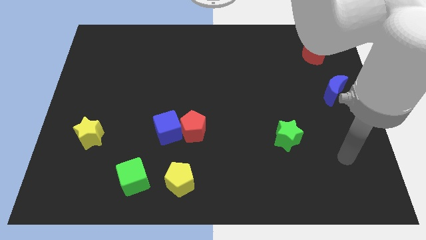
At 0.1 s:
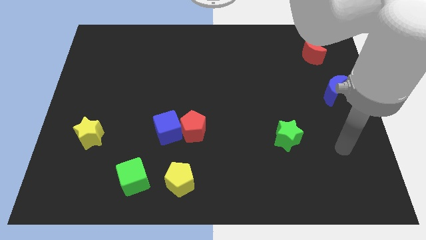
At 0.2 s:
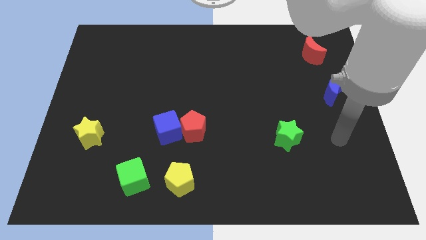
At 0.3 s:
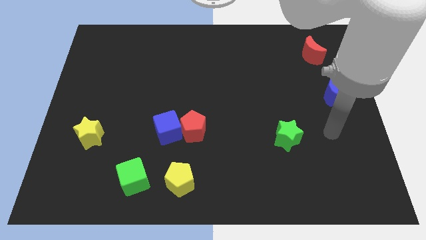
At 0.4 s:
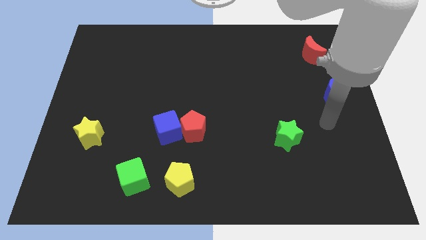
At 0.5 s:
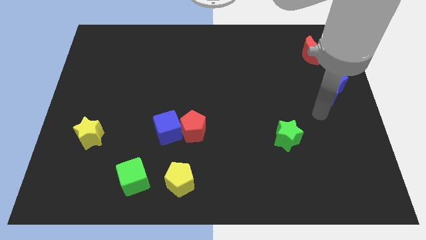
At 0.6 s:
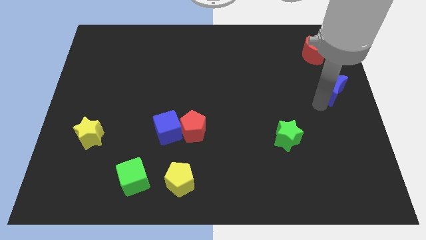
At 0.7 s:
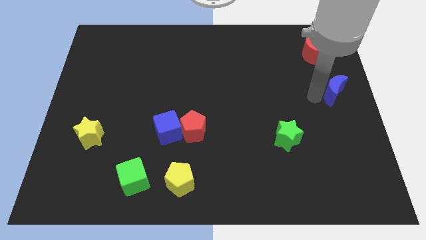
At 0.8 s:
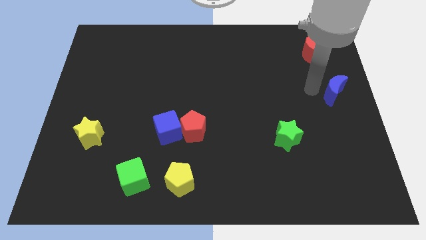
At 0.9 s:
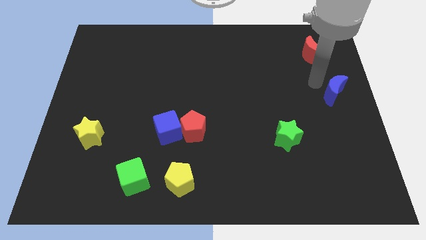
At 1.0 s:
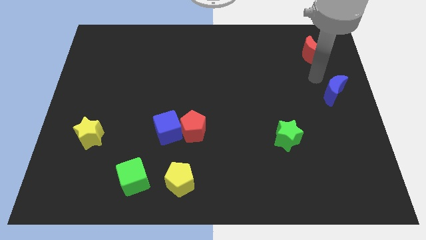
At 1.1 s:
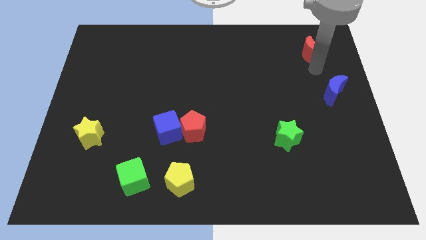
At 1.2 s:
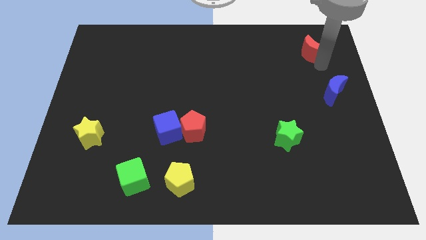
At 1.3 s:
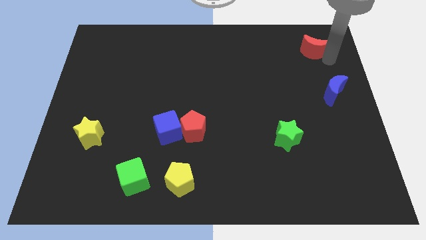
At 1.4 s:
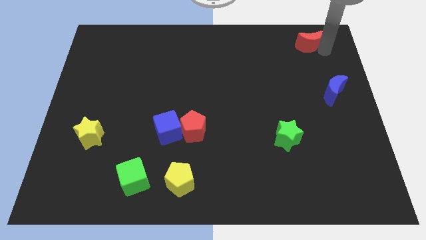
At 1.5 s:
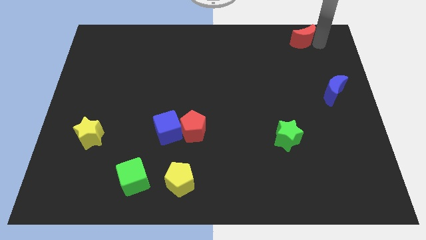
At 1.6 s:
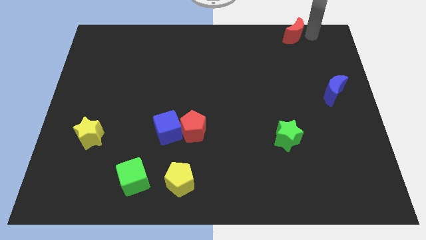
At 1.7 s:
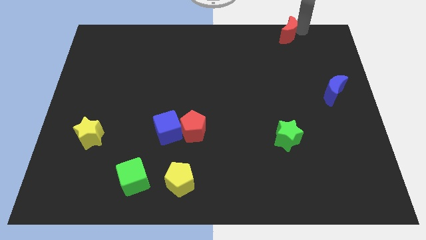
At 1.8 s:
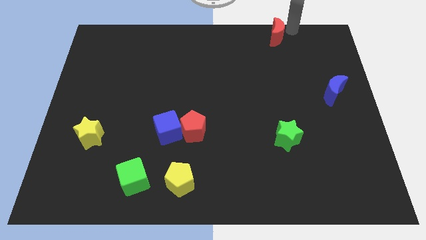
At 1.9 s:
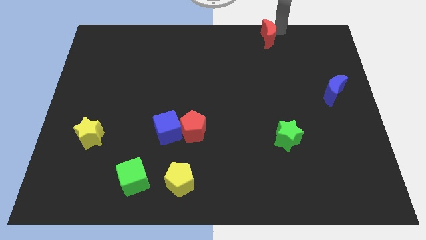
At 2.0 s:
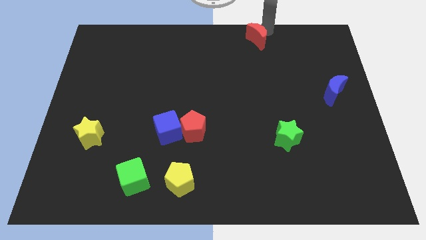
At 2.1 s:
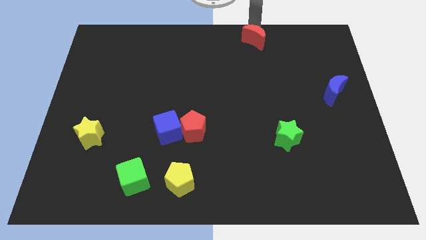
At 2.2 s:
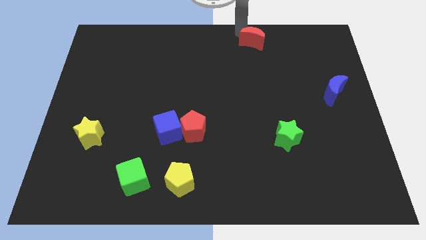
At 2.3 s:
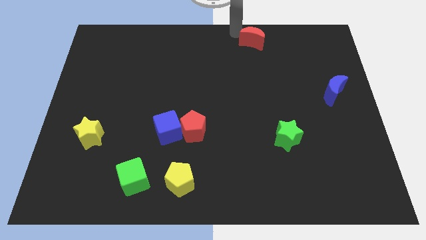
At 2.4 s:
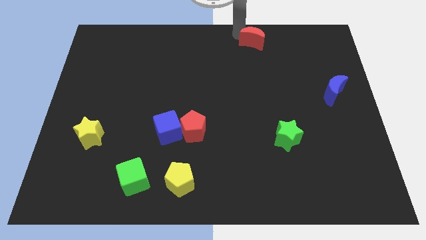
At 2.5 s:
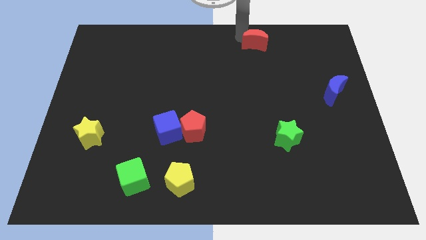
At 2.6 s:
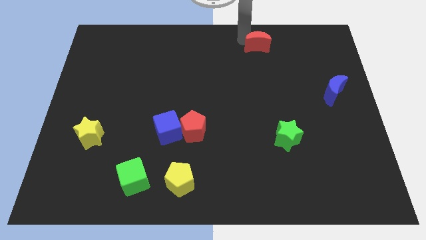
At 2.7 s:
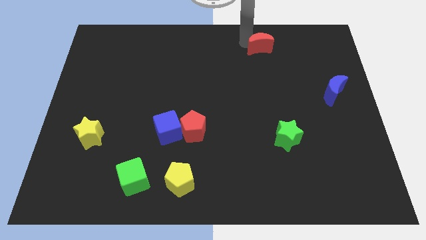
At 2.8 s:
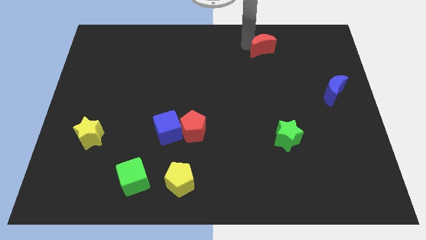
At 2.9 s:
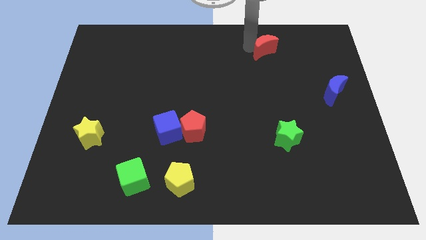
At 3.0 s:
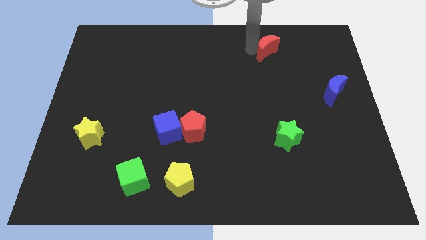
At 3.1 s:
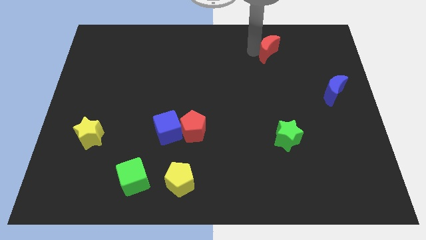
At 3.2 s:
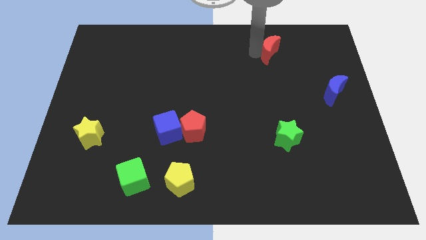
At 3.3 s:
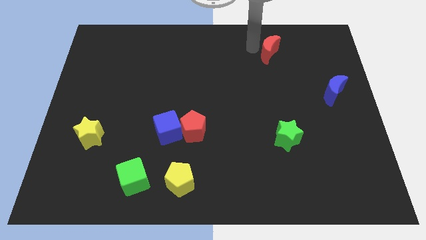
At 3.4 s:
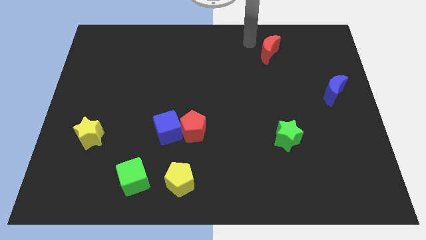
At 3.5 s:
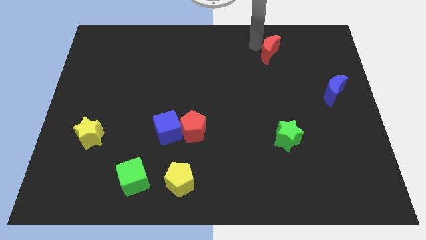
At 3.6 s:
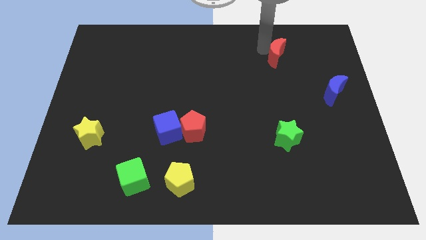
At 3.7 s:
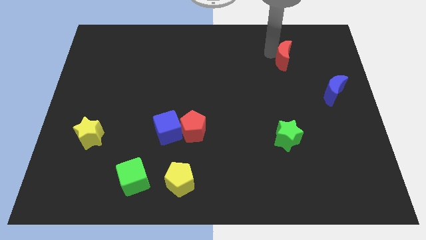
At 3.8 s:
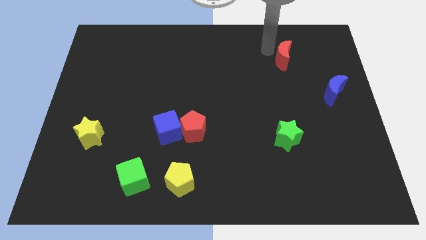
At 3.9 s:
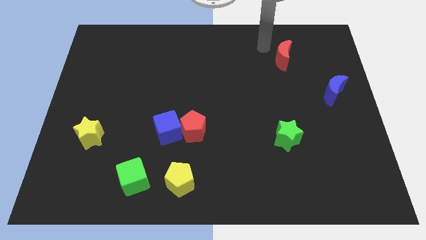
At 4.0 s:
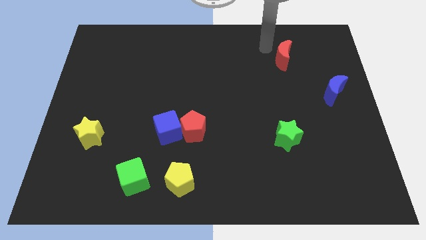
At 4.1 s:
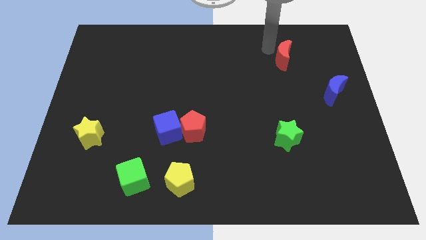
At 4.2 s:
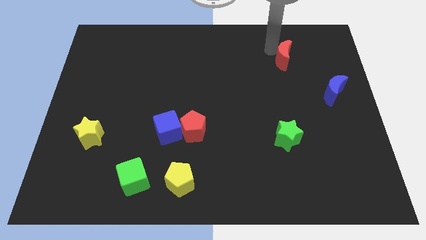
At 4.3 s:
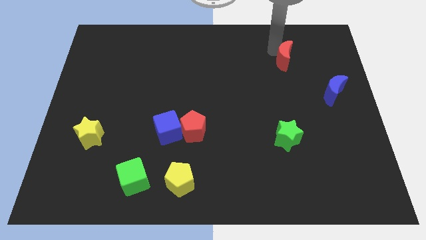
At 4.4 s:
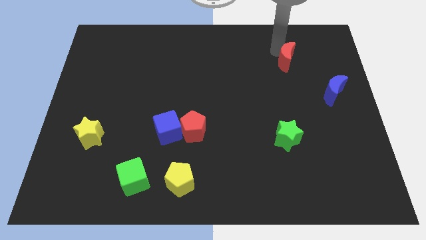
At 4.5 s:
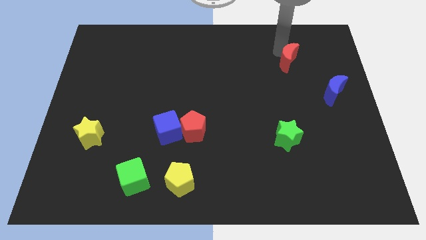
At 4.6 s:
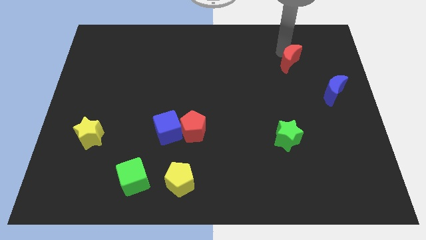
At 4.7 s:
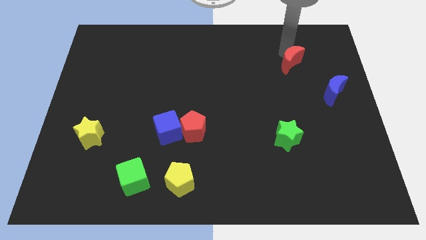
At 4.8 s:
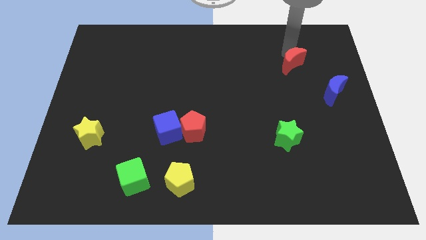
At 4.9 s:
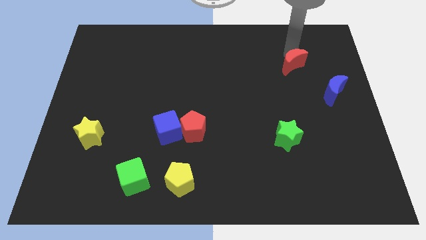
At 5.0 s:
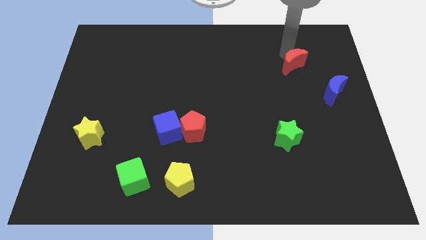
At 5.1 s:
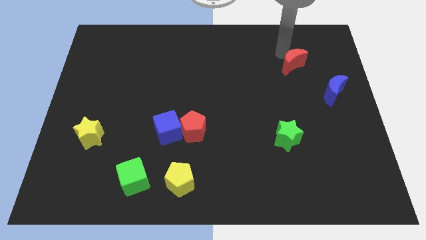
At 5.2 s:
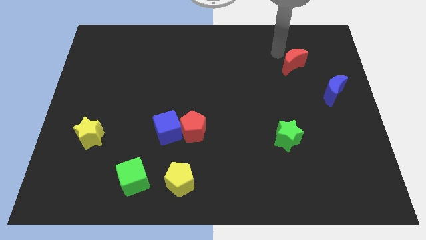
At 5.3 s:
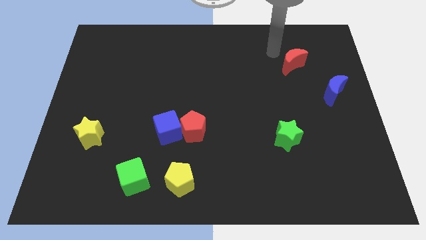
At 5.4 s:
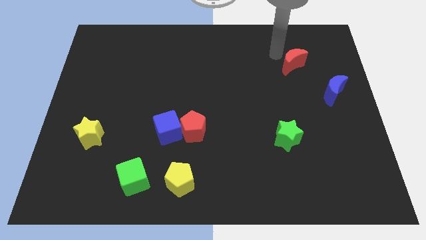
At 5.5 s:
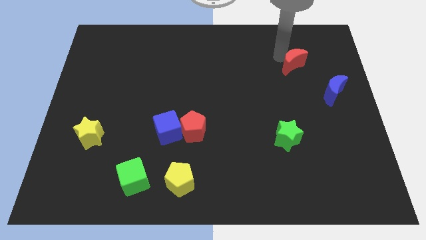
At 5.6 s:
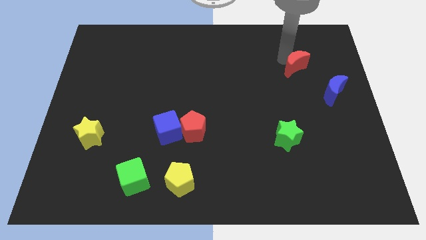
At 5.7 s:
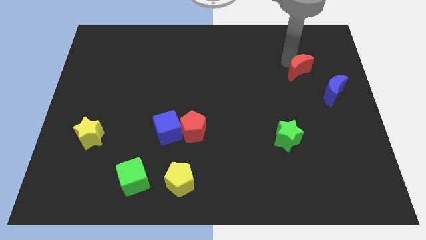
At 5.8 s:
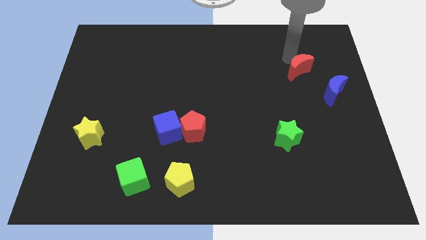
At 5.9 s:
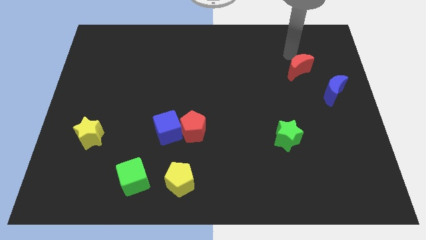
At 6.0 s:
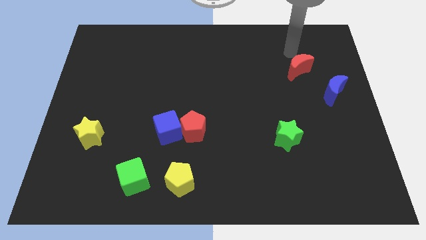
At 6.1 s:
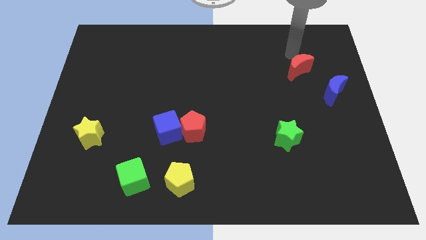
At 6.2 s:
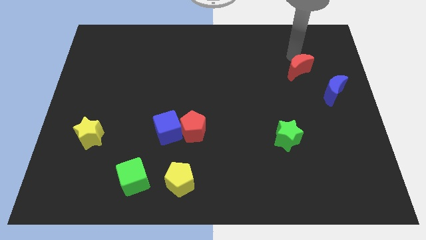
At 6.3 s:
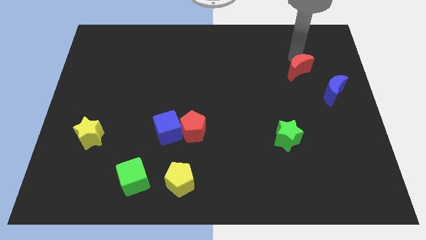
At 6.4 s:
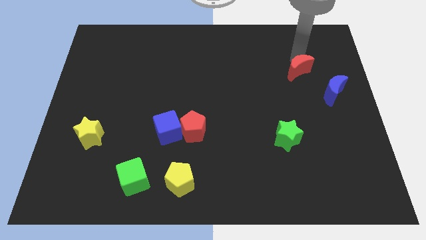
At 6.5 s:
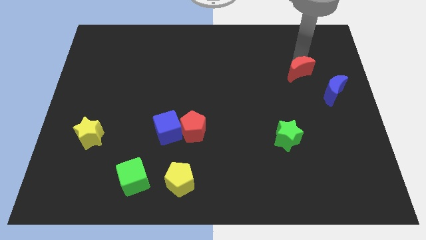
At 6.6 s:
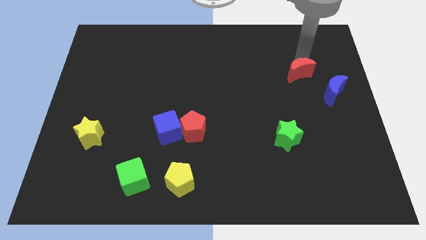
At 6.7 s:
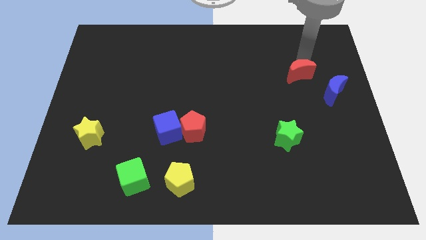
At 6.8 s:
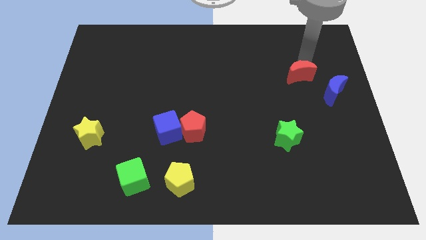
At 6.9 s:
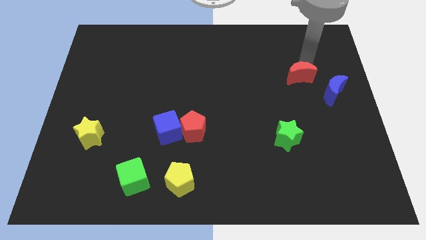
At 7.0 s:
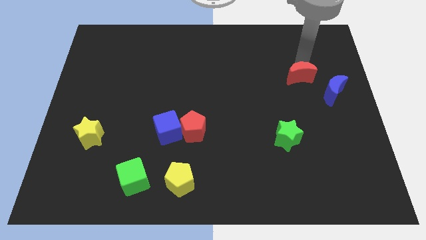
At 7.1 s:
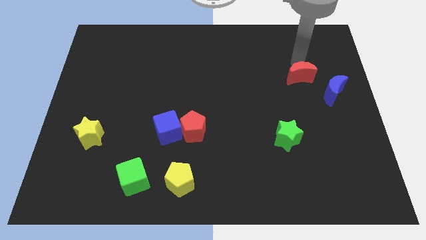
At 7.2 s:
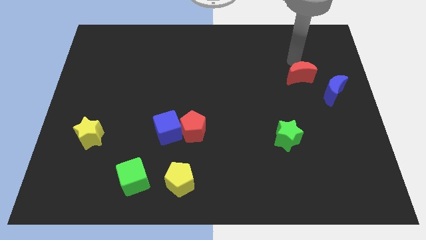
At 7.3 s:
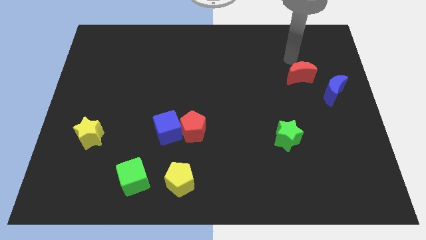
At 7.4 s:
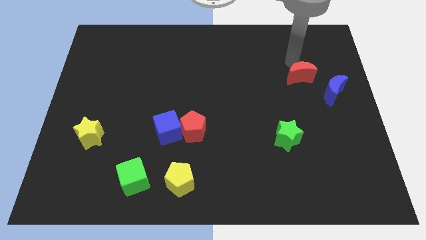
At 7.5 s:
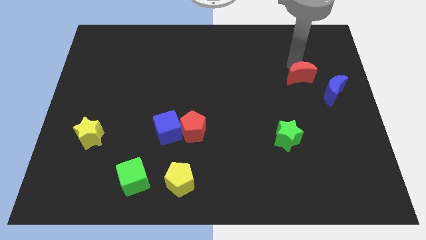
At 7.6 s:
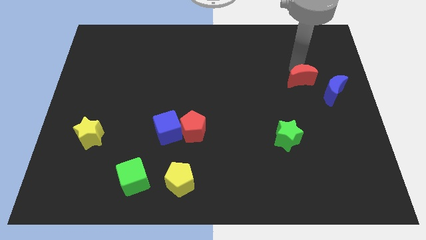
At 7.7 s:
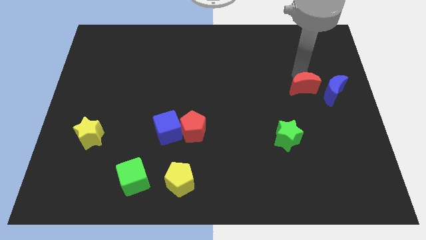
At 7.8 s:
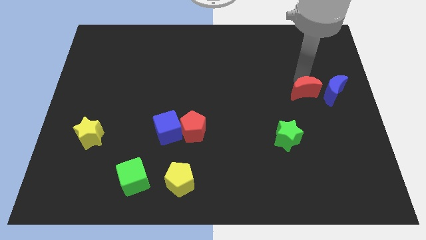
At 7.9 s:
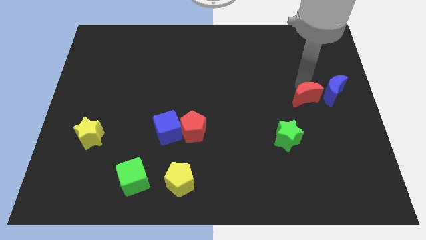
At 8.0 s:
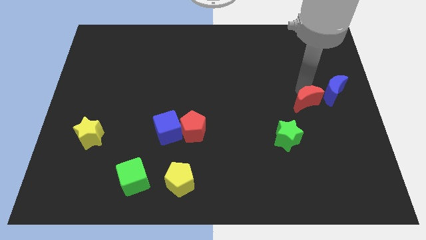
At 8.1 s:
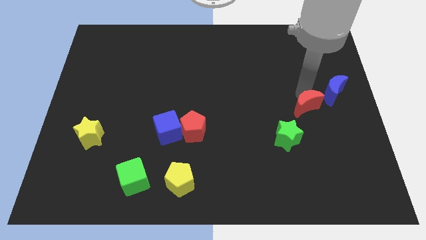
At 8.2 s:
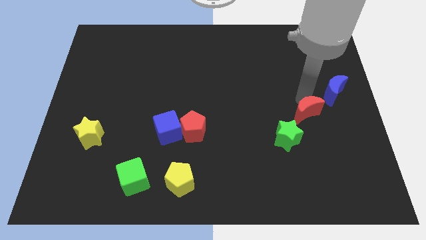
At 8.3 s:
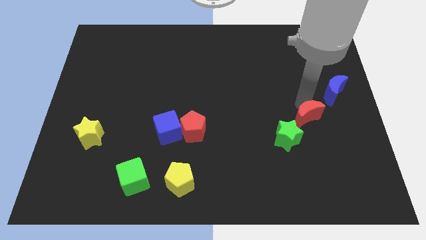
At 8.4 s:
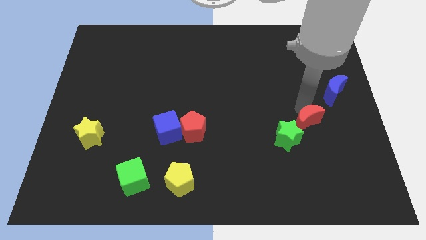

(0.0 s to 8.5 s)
push the red moon downwards
